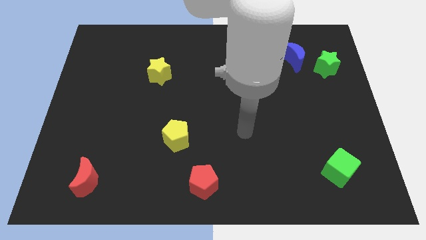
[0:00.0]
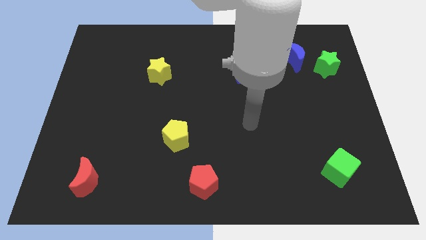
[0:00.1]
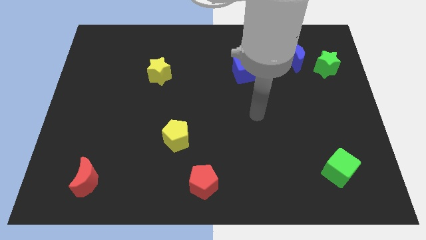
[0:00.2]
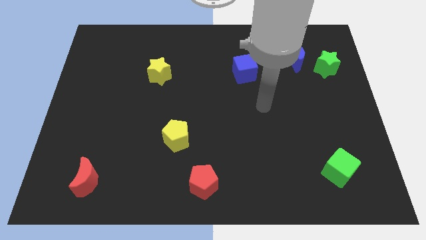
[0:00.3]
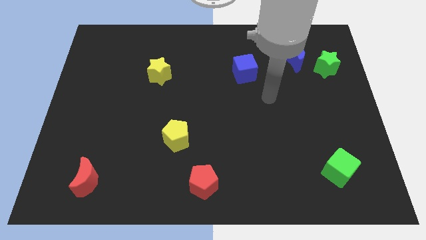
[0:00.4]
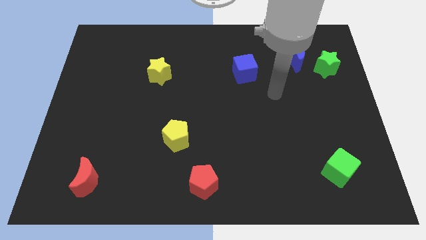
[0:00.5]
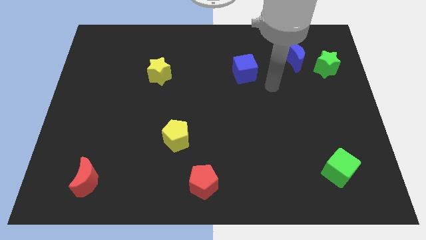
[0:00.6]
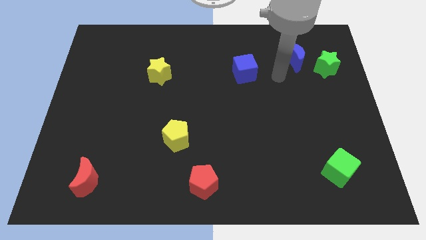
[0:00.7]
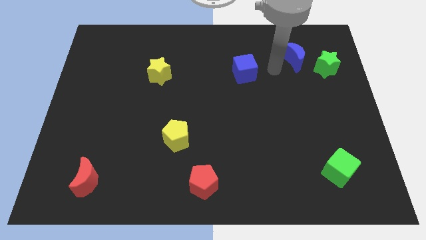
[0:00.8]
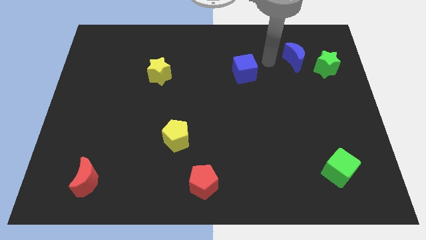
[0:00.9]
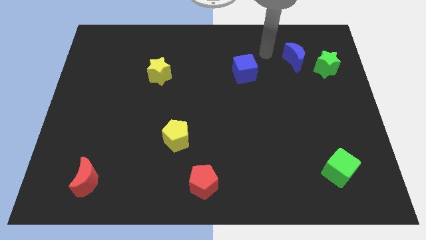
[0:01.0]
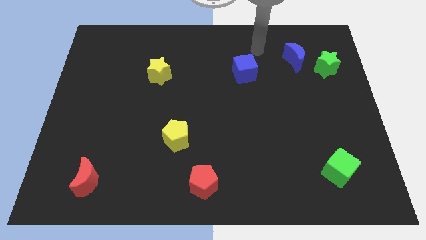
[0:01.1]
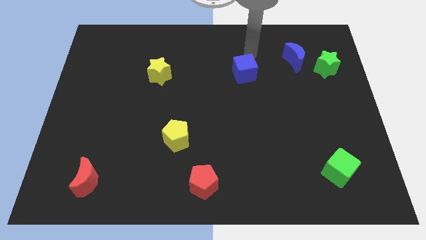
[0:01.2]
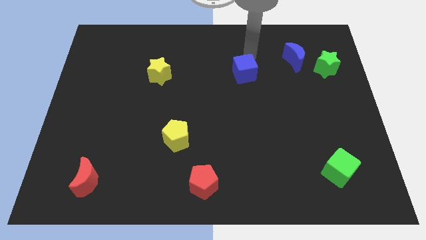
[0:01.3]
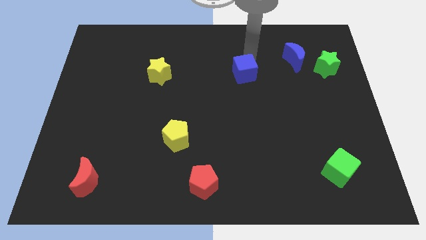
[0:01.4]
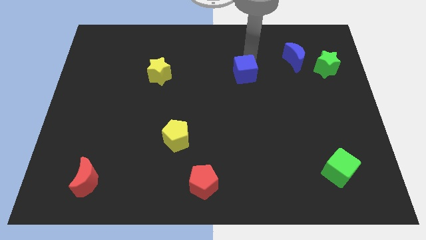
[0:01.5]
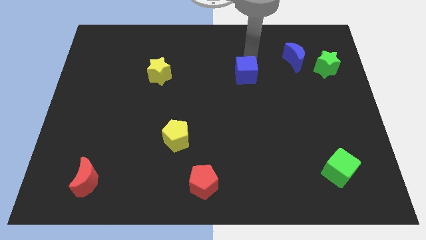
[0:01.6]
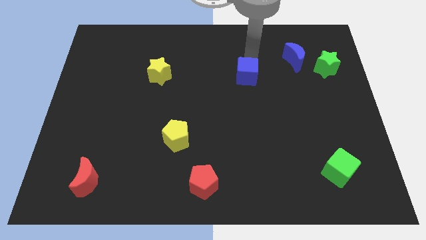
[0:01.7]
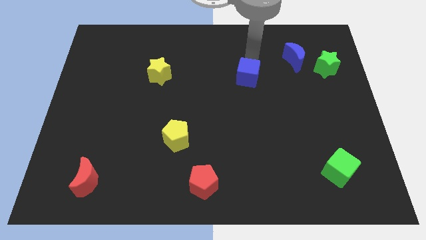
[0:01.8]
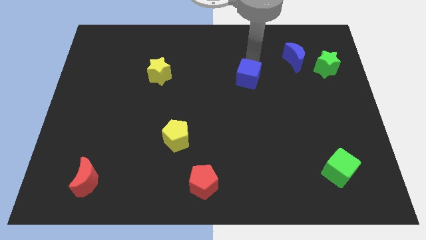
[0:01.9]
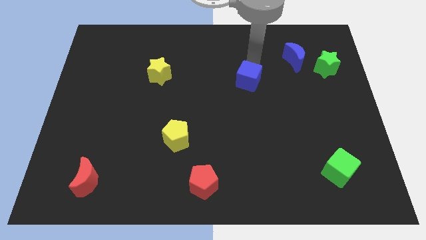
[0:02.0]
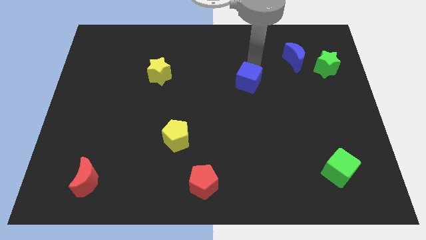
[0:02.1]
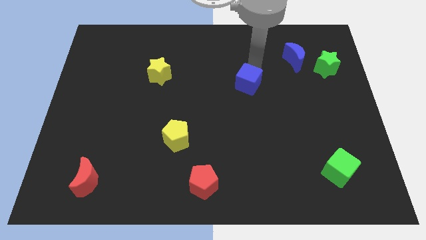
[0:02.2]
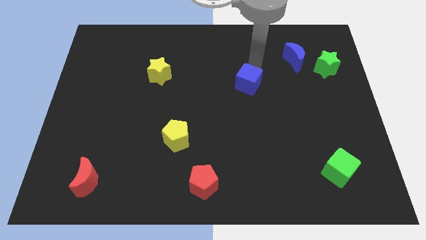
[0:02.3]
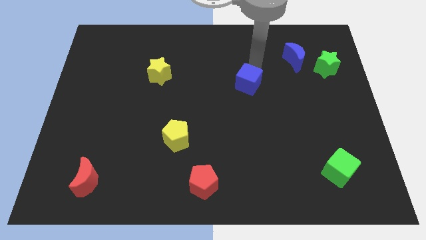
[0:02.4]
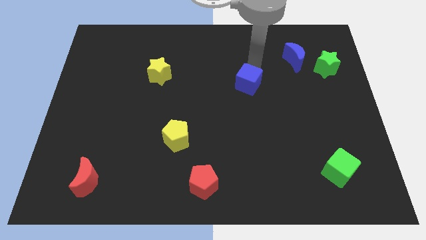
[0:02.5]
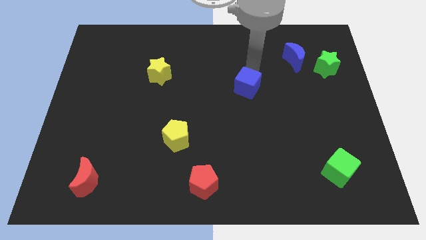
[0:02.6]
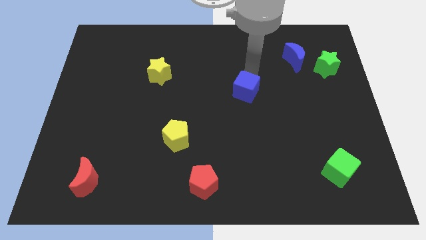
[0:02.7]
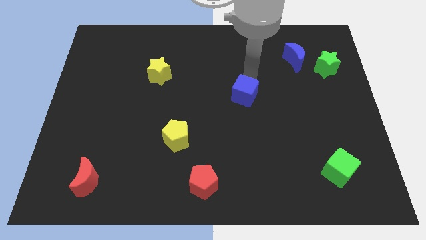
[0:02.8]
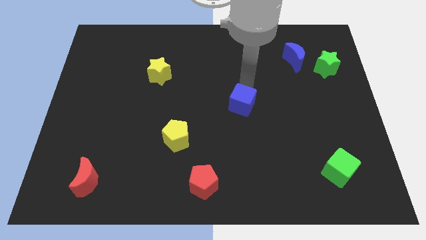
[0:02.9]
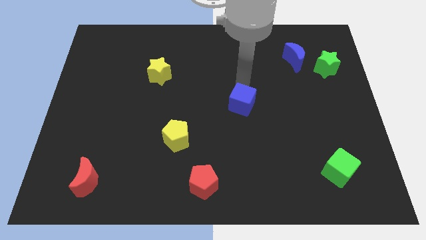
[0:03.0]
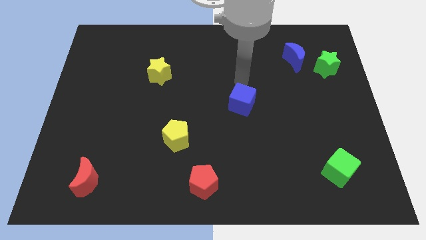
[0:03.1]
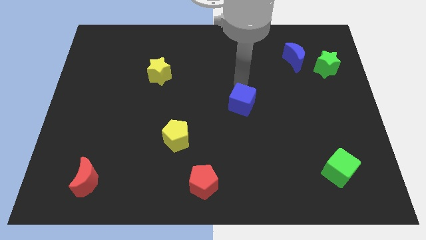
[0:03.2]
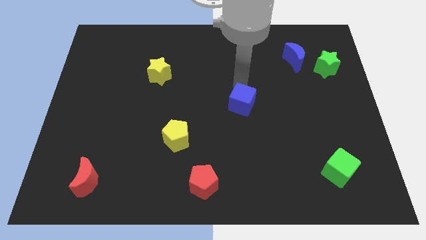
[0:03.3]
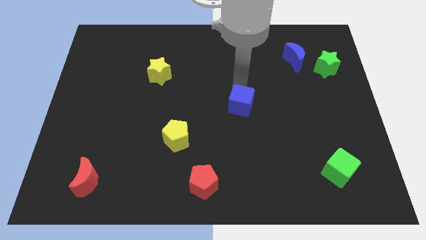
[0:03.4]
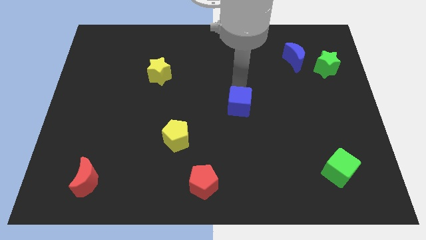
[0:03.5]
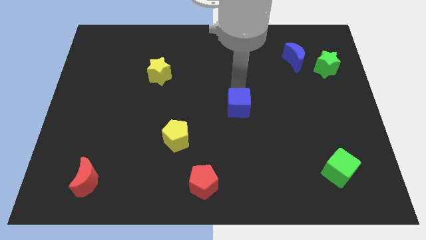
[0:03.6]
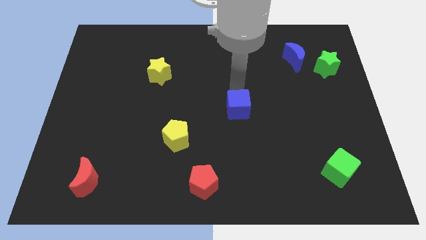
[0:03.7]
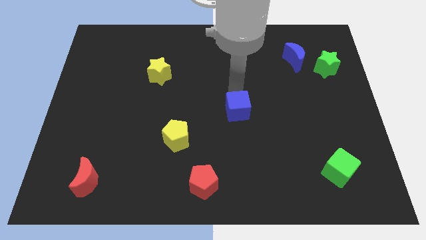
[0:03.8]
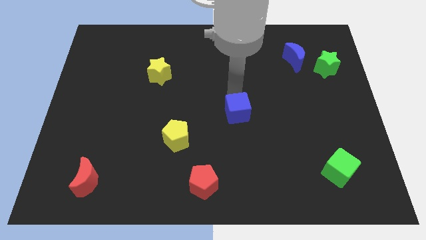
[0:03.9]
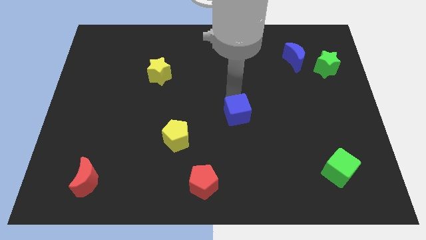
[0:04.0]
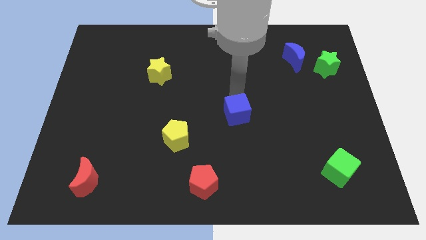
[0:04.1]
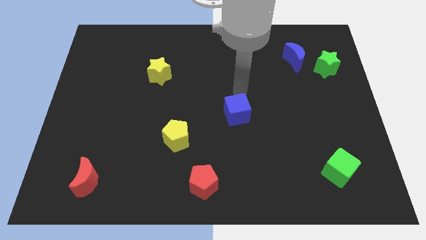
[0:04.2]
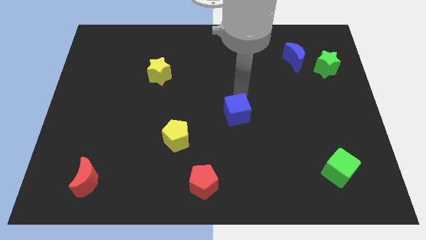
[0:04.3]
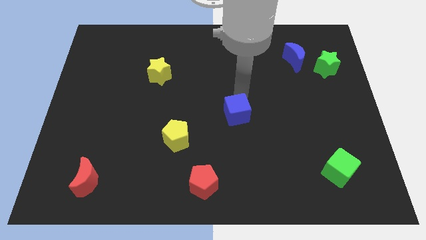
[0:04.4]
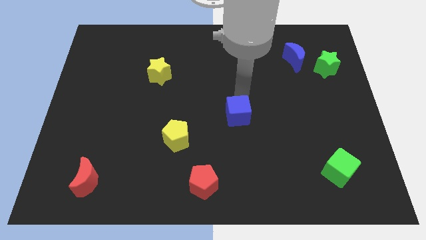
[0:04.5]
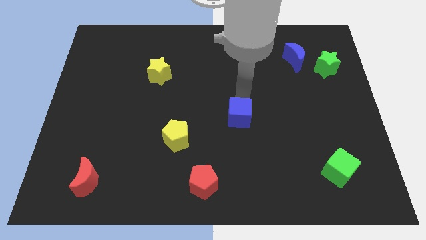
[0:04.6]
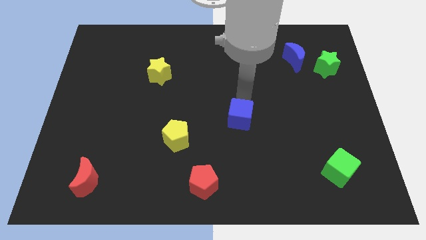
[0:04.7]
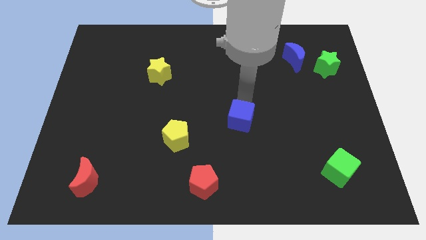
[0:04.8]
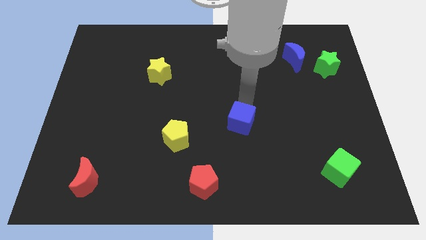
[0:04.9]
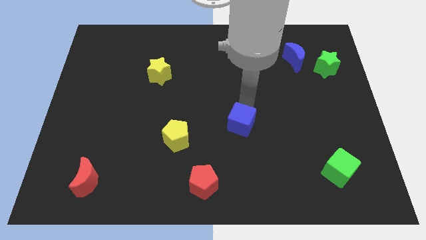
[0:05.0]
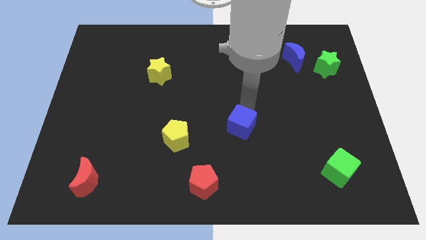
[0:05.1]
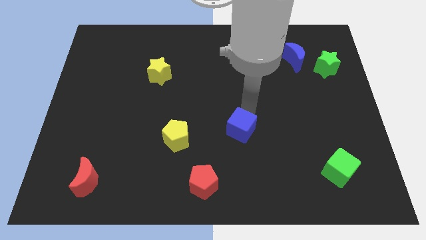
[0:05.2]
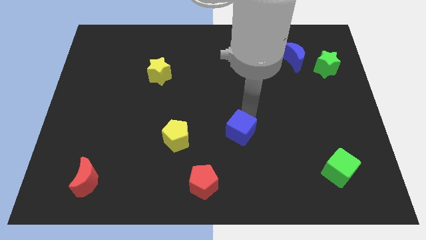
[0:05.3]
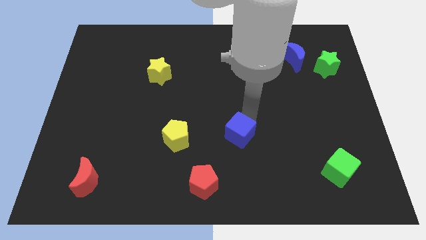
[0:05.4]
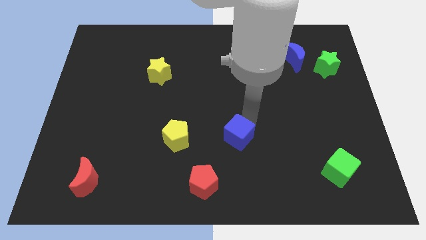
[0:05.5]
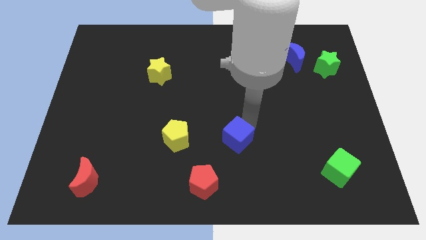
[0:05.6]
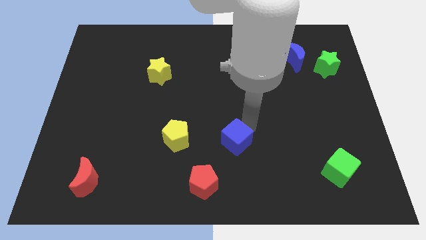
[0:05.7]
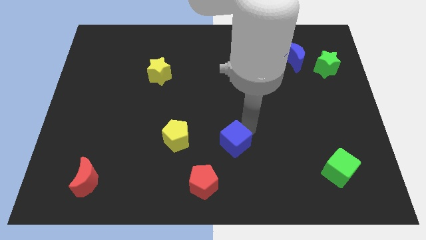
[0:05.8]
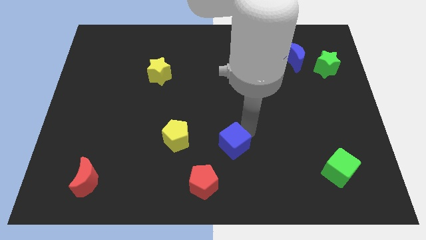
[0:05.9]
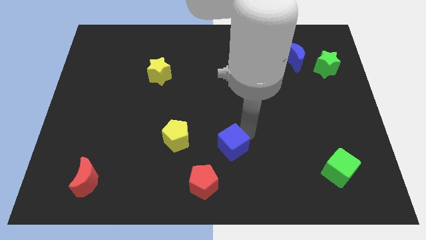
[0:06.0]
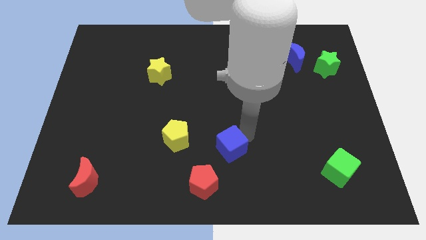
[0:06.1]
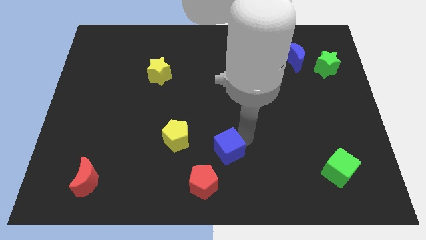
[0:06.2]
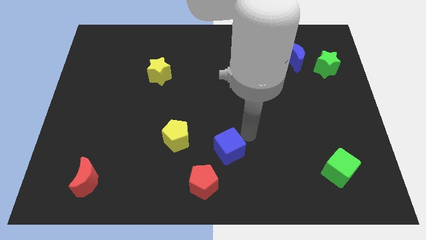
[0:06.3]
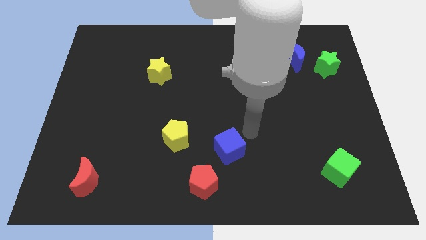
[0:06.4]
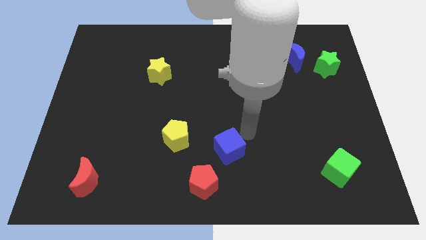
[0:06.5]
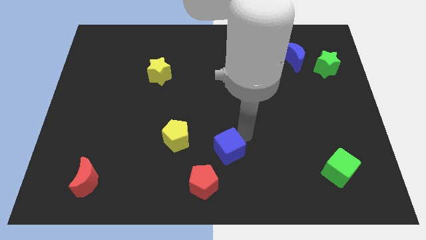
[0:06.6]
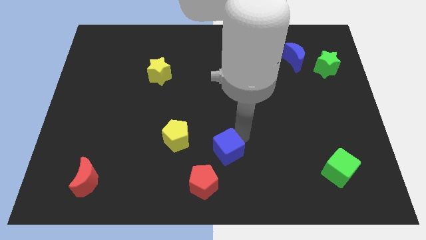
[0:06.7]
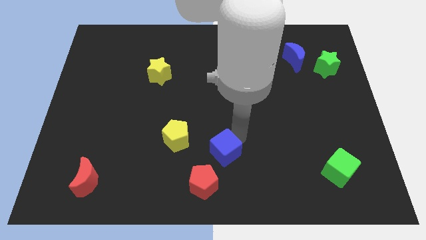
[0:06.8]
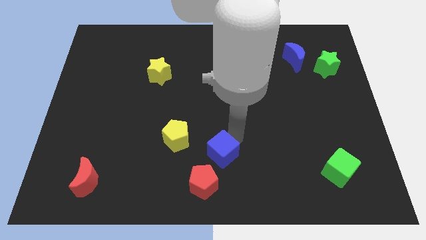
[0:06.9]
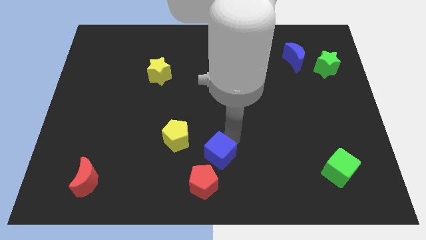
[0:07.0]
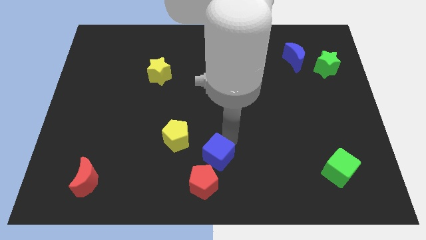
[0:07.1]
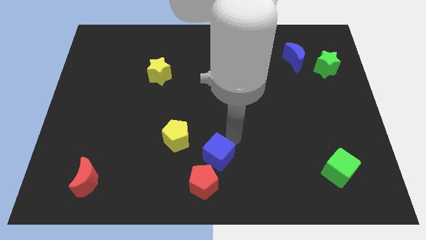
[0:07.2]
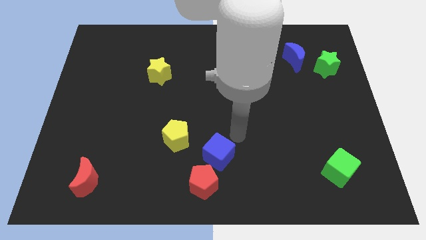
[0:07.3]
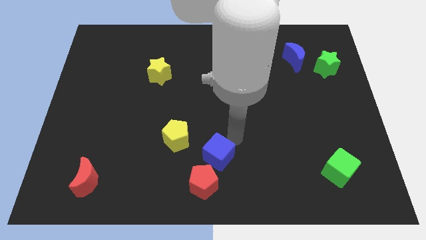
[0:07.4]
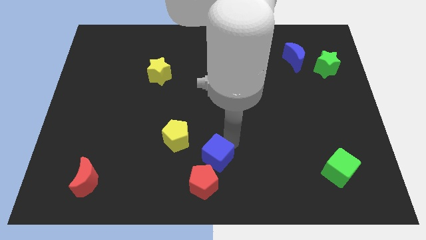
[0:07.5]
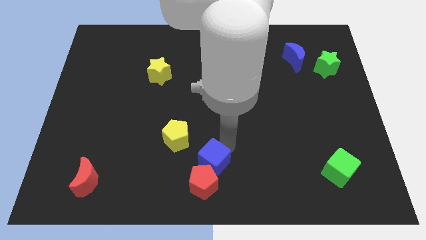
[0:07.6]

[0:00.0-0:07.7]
push the blue cube to the red pentagon
